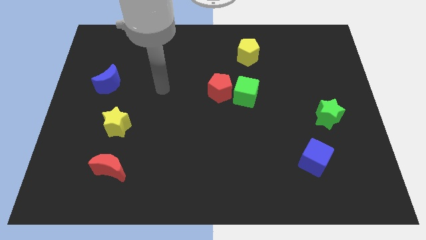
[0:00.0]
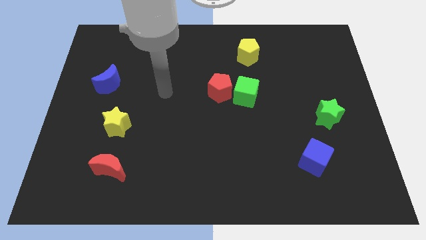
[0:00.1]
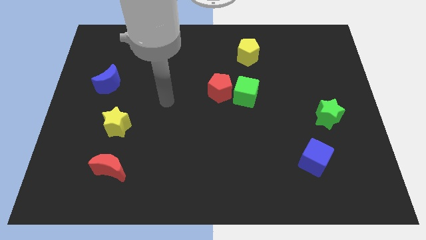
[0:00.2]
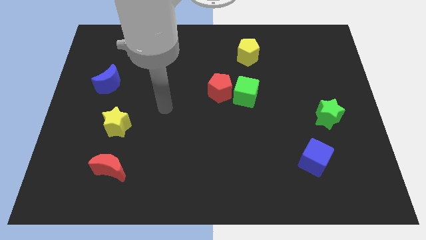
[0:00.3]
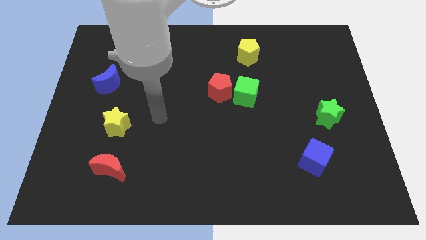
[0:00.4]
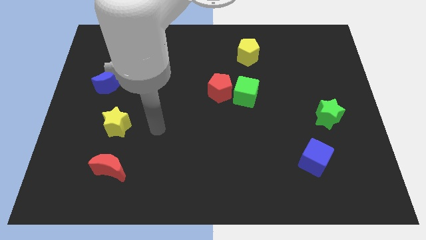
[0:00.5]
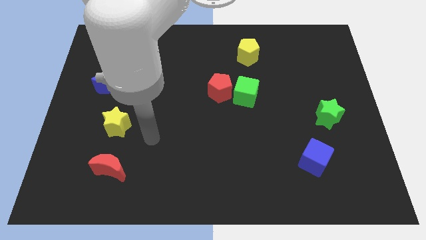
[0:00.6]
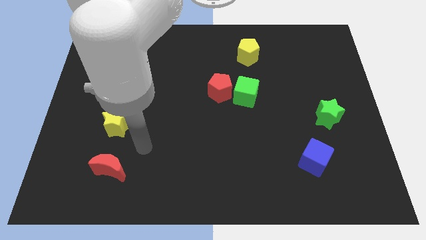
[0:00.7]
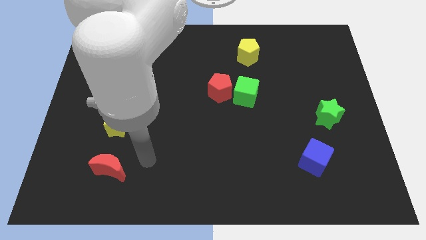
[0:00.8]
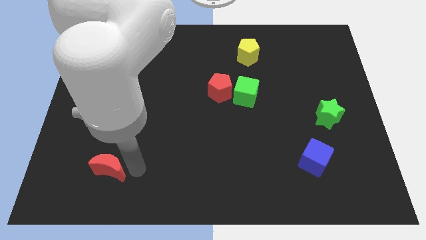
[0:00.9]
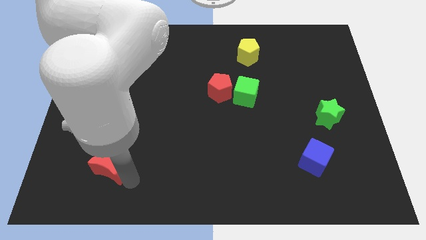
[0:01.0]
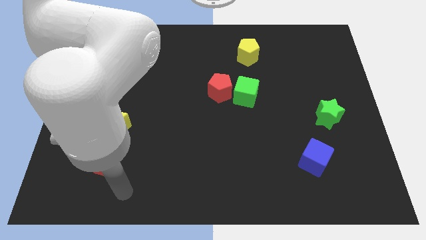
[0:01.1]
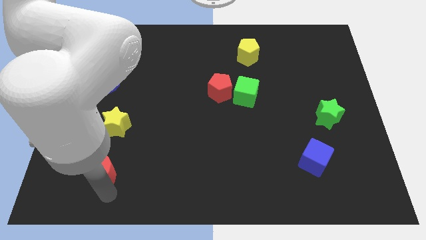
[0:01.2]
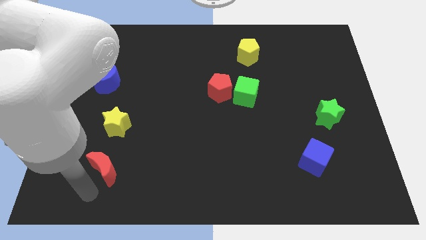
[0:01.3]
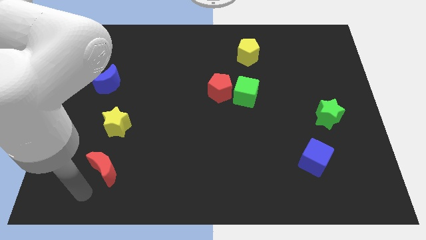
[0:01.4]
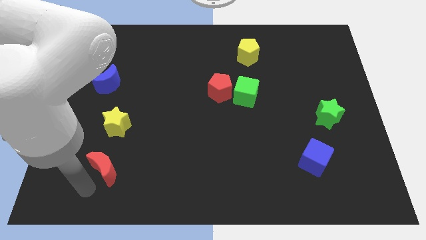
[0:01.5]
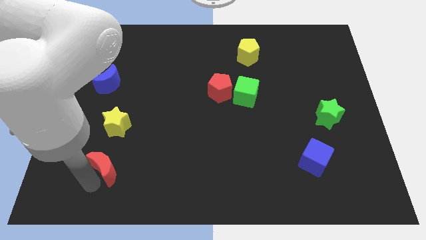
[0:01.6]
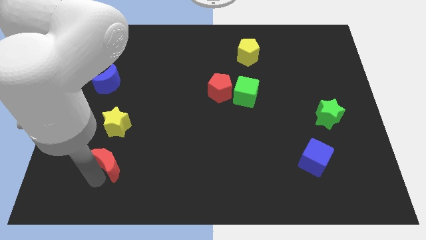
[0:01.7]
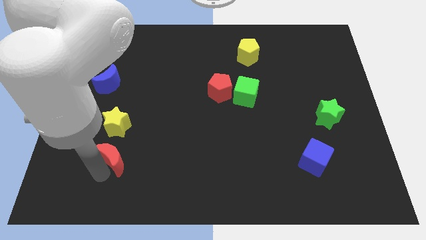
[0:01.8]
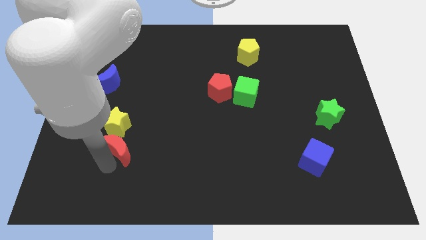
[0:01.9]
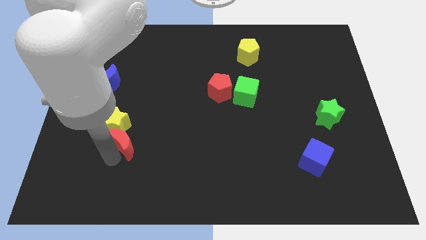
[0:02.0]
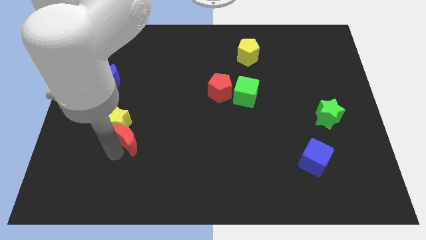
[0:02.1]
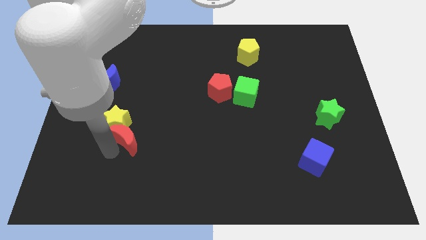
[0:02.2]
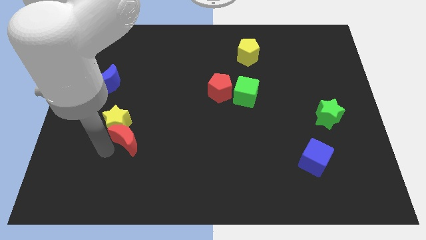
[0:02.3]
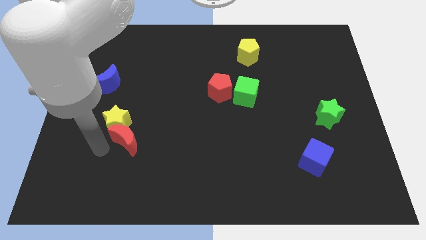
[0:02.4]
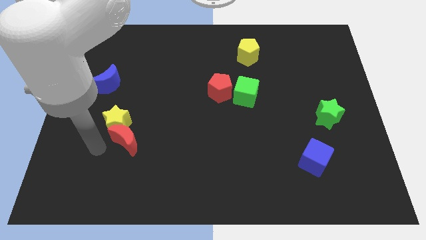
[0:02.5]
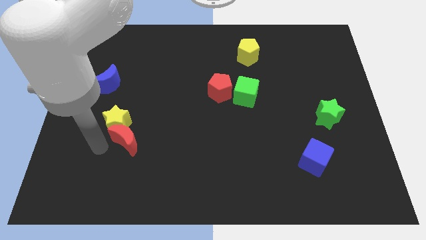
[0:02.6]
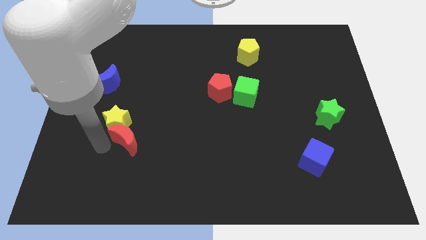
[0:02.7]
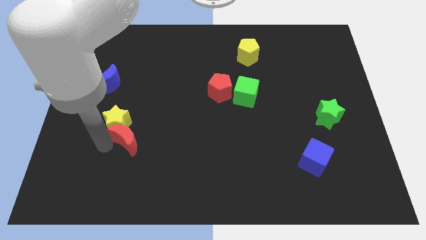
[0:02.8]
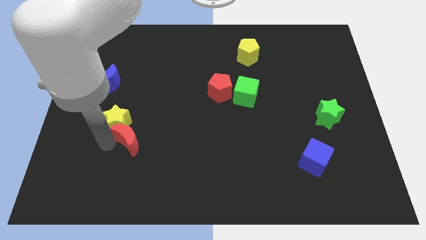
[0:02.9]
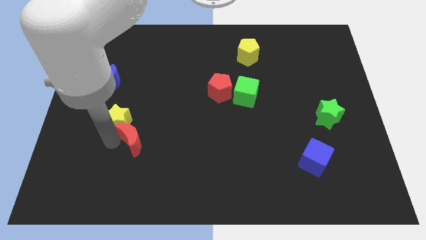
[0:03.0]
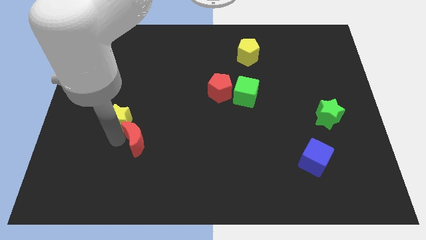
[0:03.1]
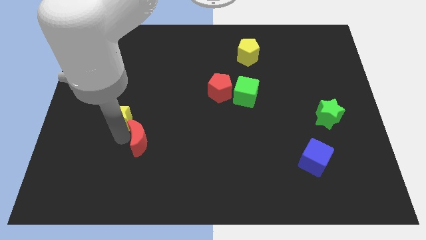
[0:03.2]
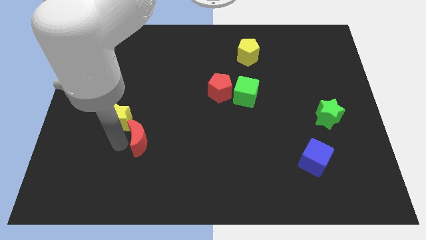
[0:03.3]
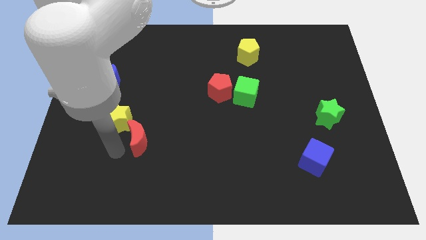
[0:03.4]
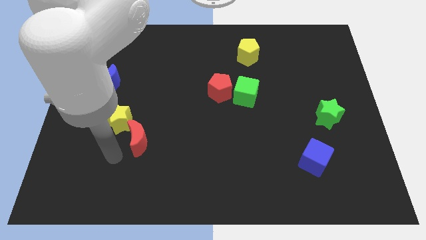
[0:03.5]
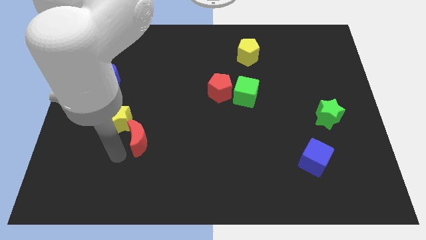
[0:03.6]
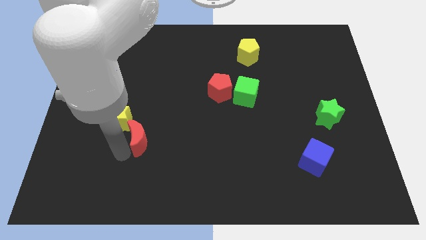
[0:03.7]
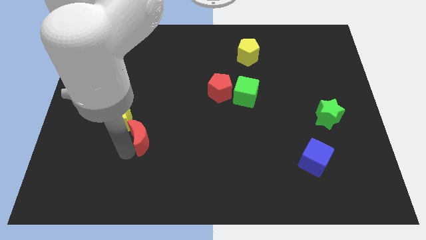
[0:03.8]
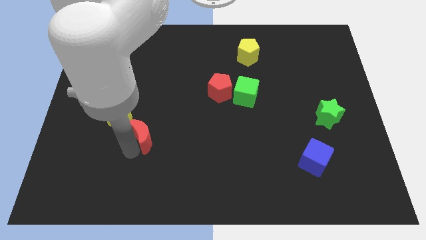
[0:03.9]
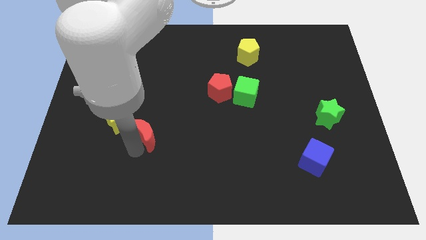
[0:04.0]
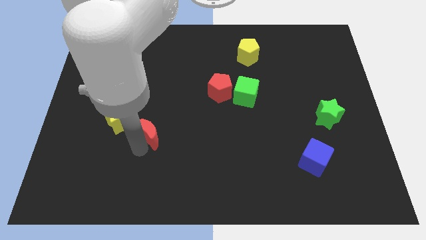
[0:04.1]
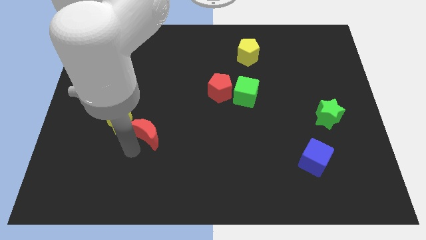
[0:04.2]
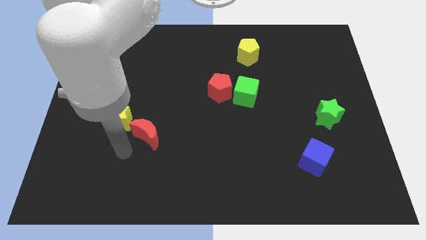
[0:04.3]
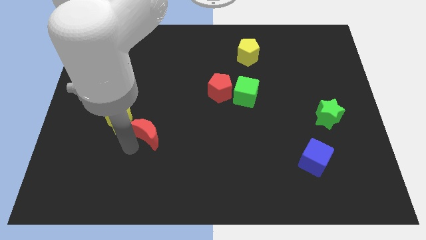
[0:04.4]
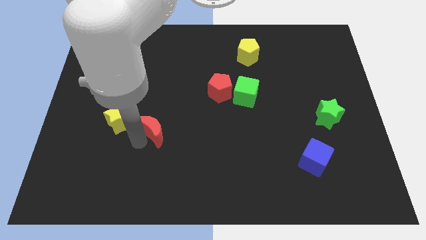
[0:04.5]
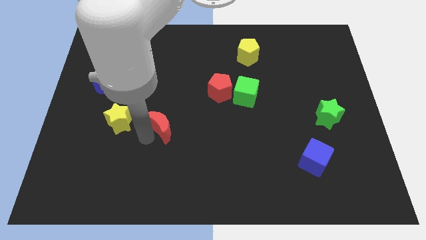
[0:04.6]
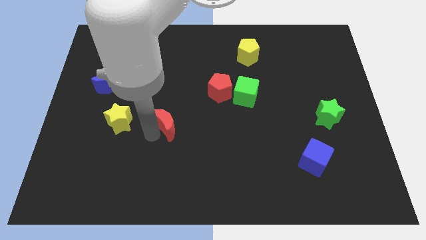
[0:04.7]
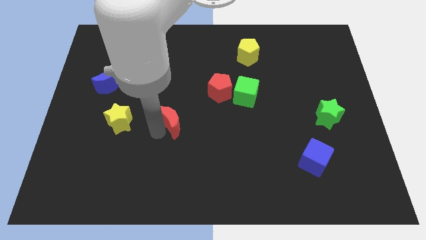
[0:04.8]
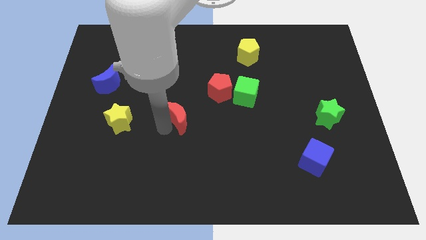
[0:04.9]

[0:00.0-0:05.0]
push the red moon to the bottom left of the red pentagon

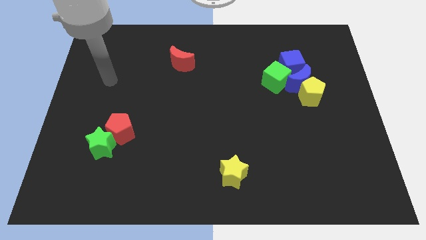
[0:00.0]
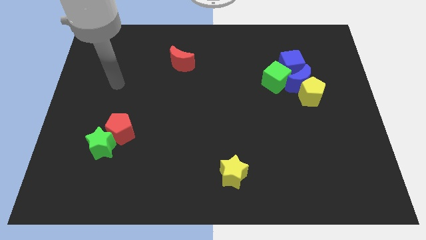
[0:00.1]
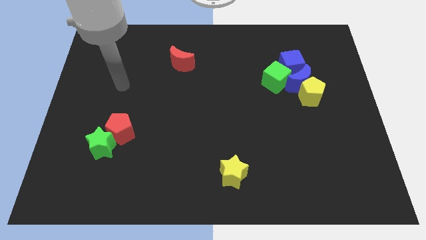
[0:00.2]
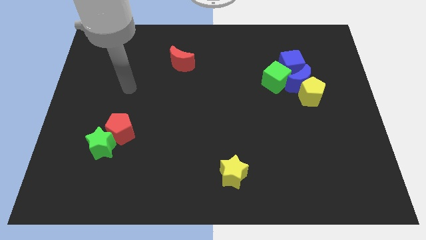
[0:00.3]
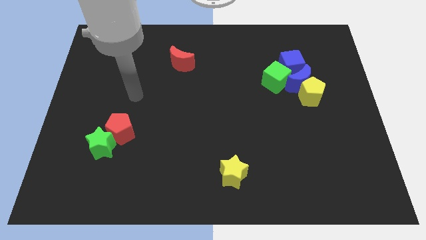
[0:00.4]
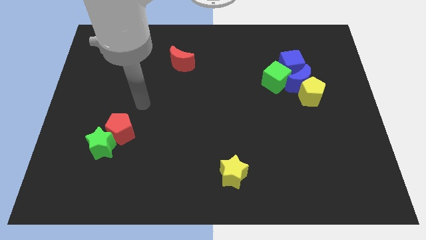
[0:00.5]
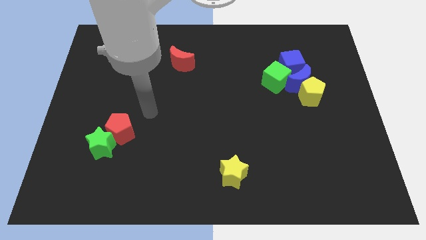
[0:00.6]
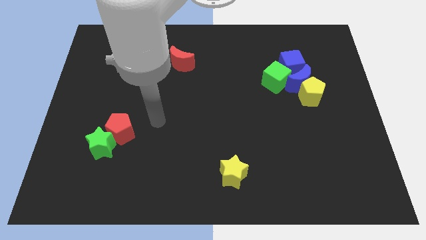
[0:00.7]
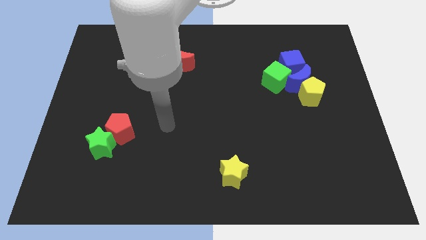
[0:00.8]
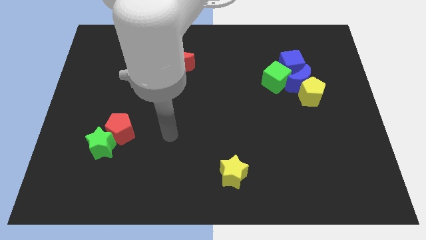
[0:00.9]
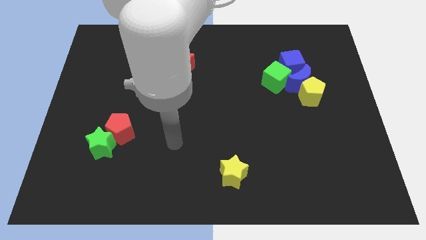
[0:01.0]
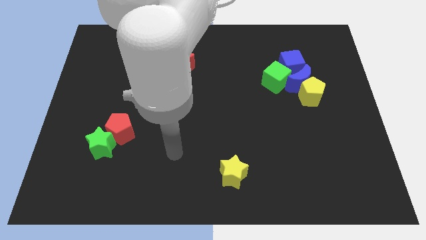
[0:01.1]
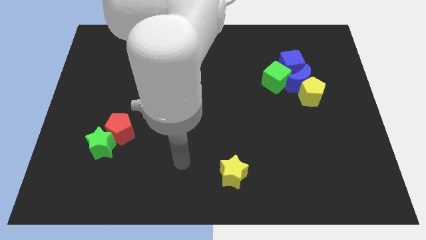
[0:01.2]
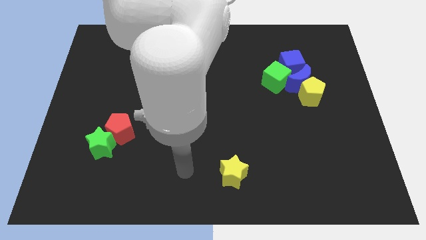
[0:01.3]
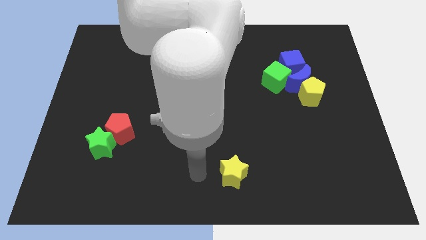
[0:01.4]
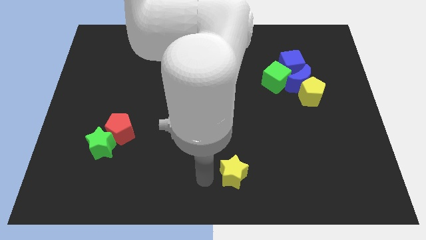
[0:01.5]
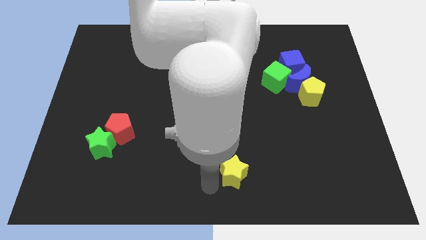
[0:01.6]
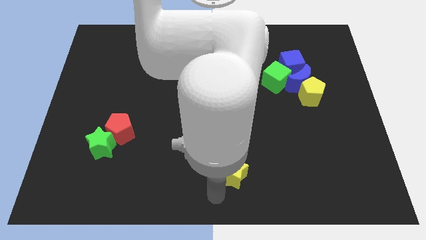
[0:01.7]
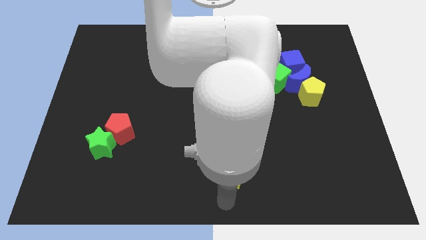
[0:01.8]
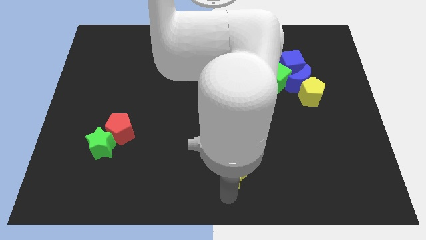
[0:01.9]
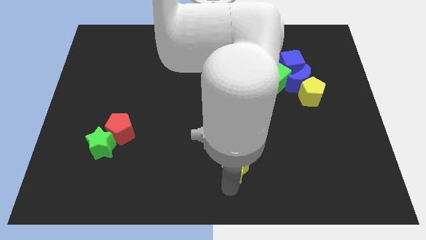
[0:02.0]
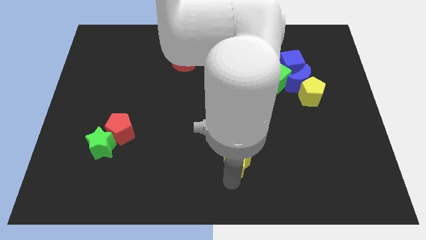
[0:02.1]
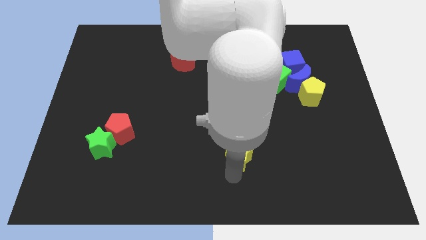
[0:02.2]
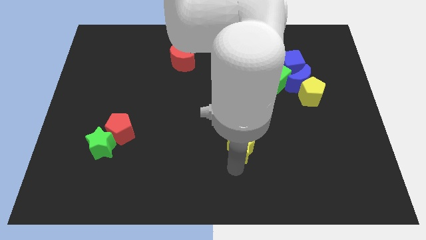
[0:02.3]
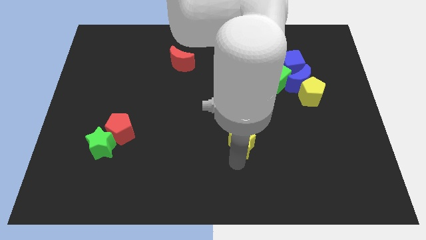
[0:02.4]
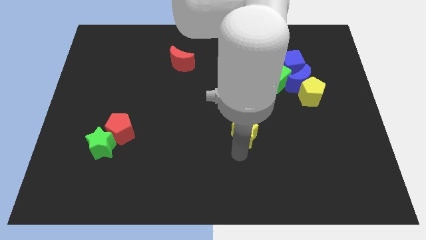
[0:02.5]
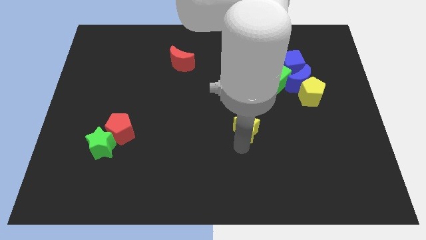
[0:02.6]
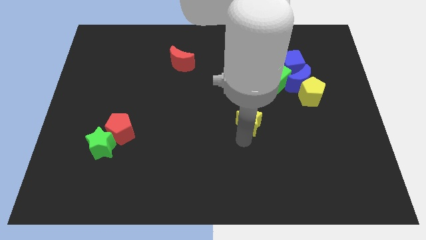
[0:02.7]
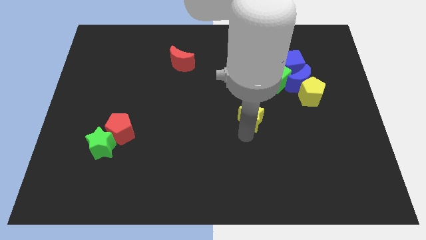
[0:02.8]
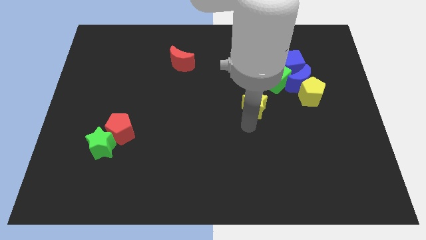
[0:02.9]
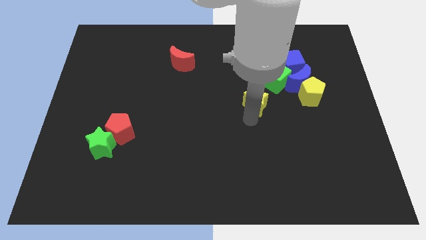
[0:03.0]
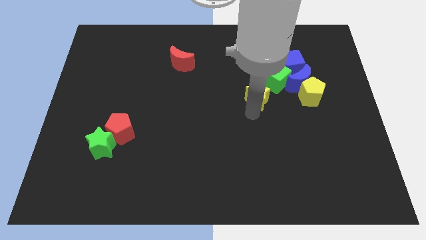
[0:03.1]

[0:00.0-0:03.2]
slide the yellow star left of the blue moon
